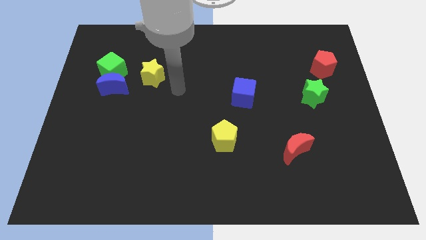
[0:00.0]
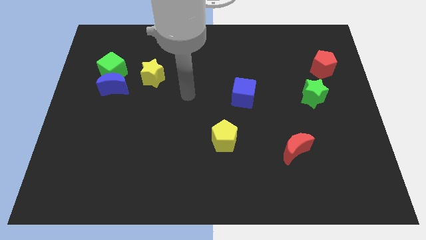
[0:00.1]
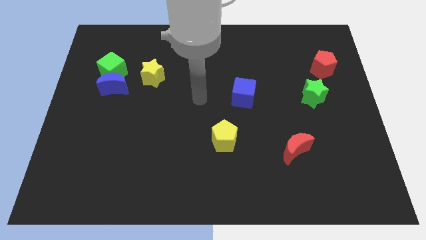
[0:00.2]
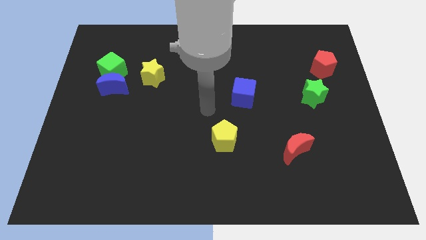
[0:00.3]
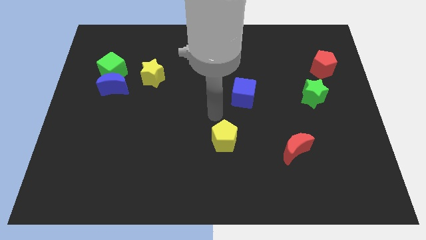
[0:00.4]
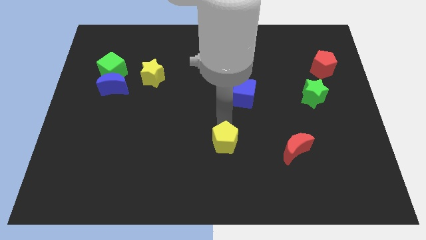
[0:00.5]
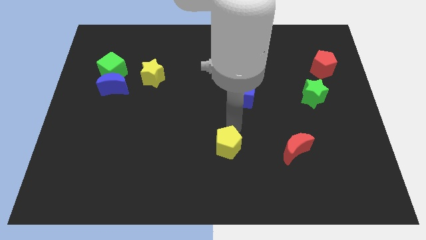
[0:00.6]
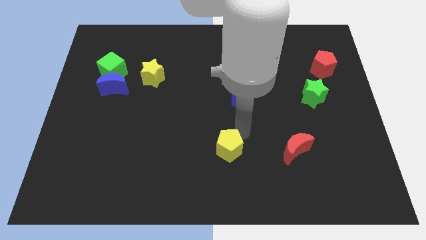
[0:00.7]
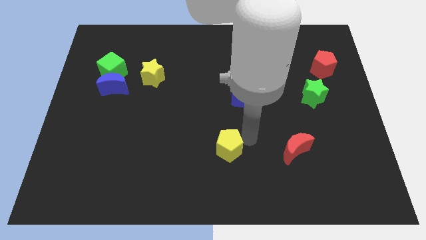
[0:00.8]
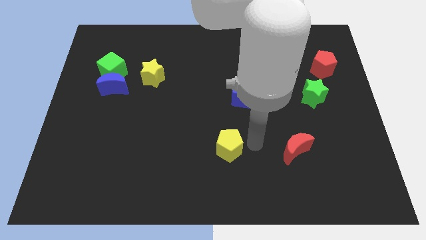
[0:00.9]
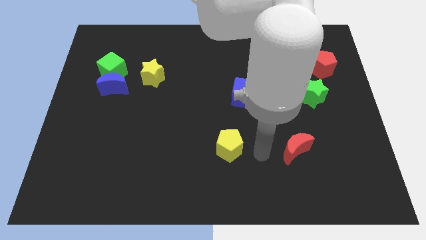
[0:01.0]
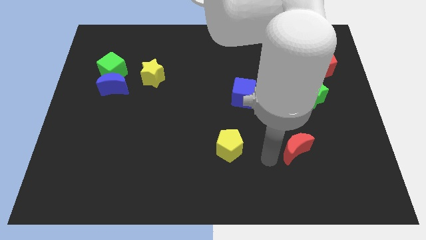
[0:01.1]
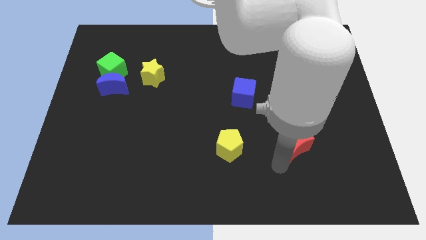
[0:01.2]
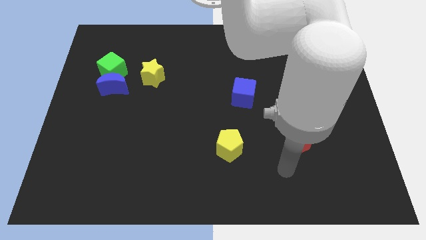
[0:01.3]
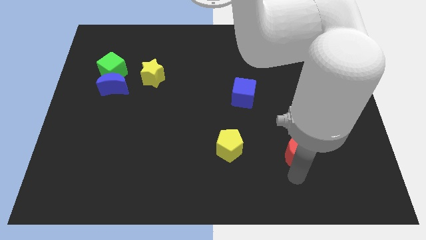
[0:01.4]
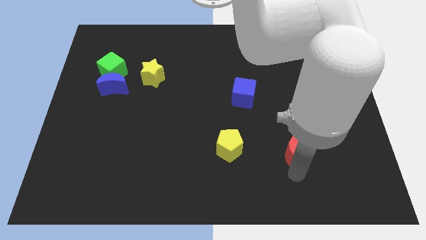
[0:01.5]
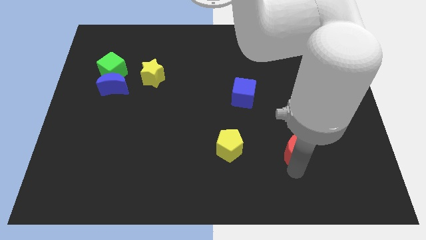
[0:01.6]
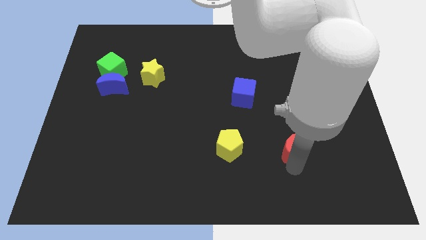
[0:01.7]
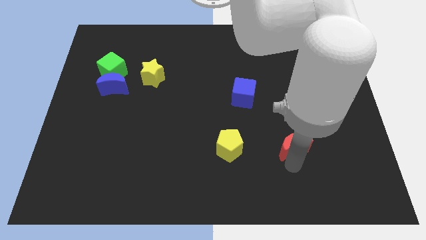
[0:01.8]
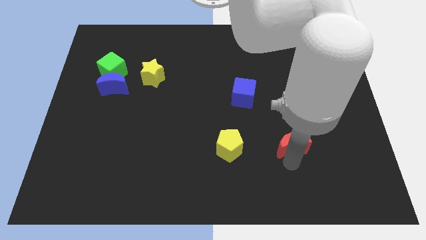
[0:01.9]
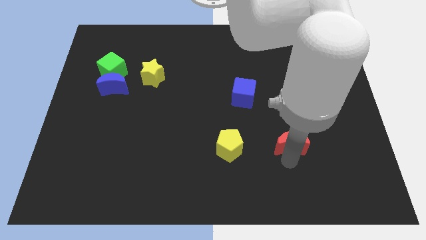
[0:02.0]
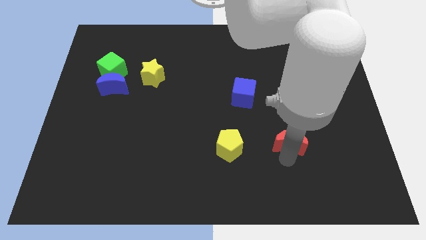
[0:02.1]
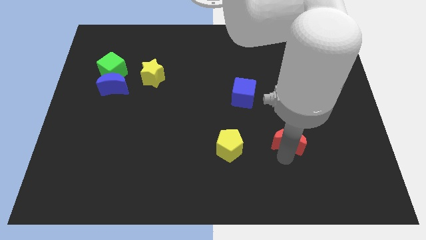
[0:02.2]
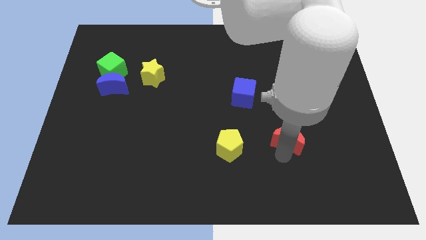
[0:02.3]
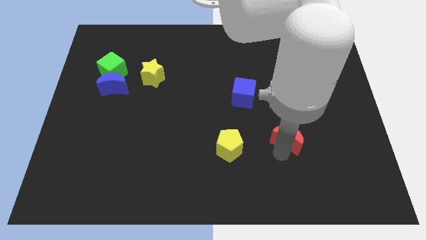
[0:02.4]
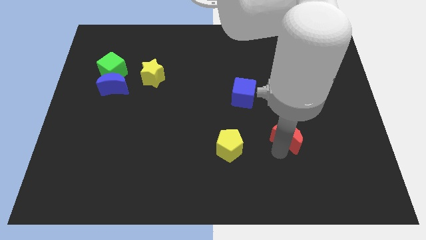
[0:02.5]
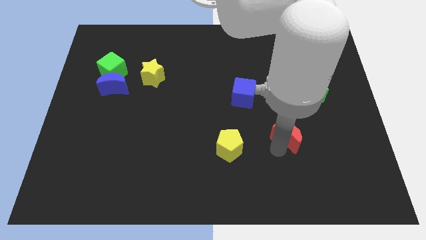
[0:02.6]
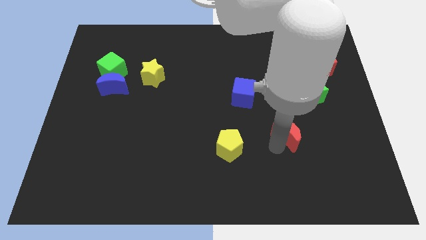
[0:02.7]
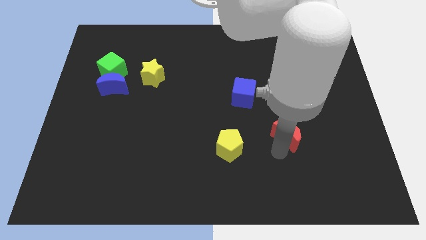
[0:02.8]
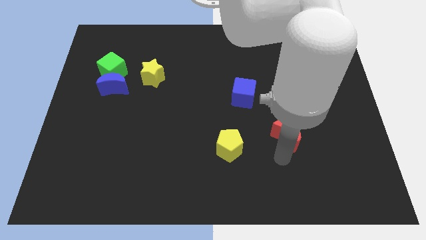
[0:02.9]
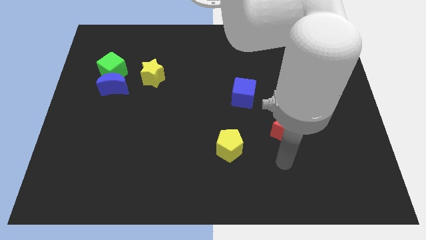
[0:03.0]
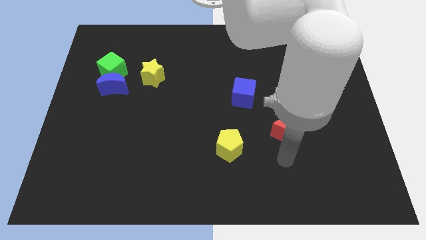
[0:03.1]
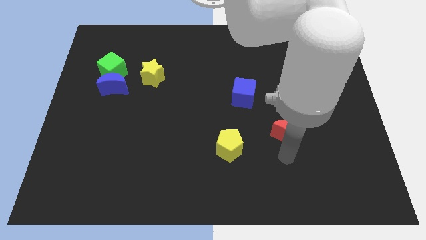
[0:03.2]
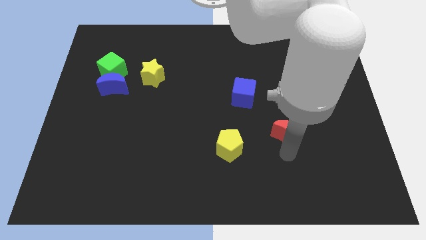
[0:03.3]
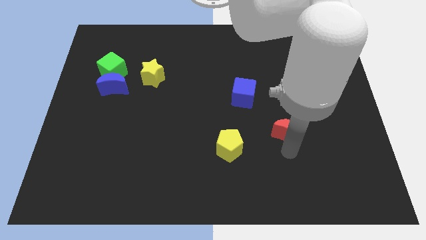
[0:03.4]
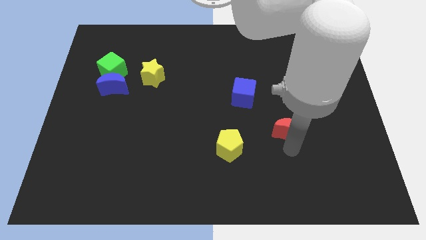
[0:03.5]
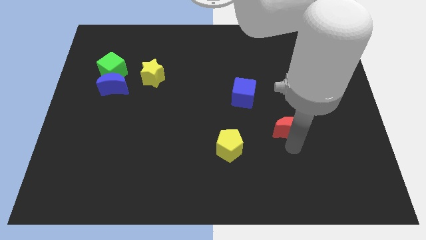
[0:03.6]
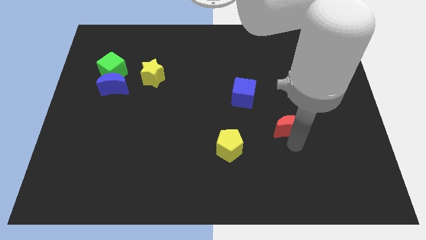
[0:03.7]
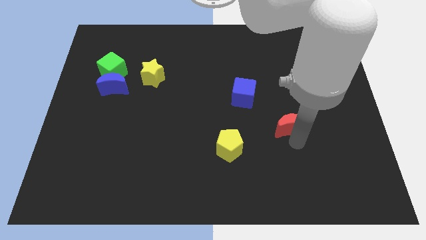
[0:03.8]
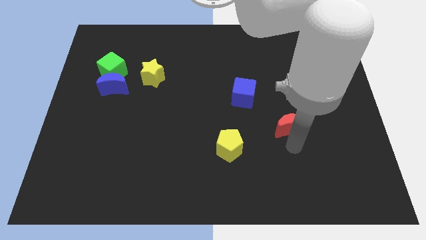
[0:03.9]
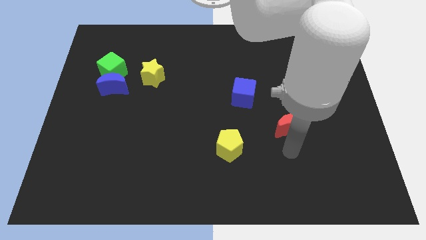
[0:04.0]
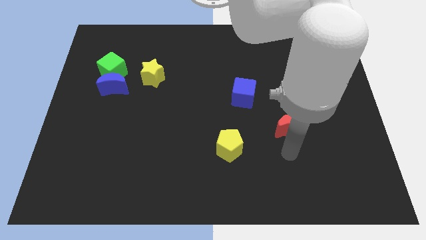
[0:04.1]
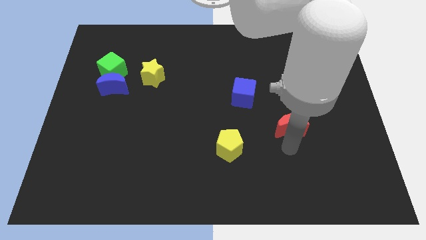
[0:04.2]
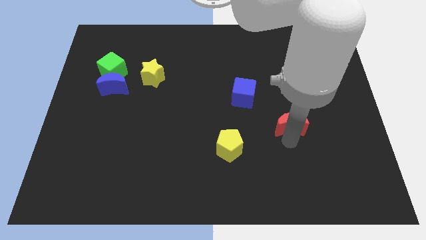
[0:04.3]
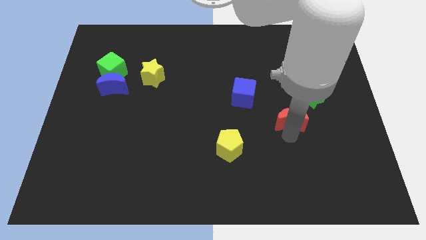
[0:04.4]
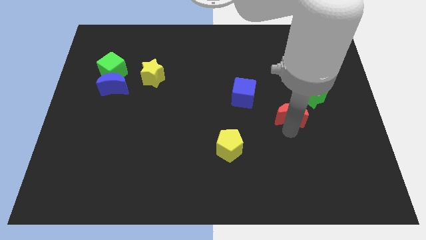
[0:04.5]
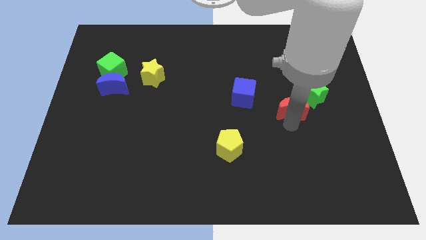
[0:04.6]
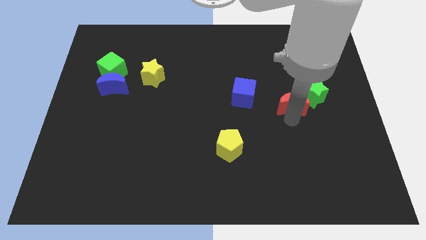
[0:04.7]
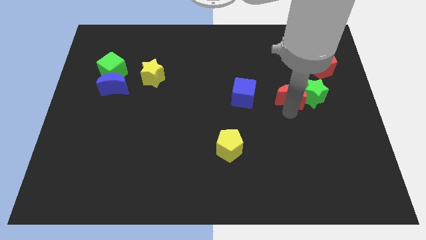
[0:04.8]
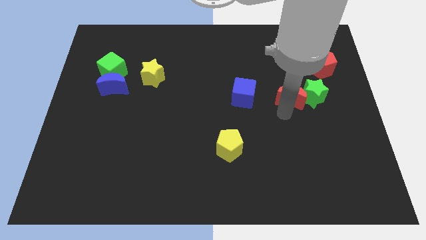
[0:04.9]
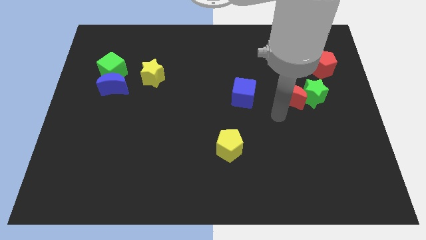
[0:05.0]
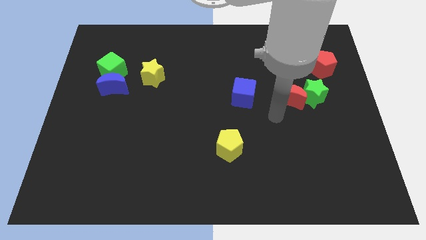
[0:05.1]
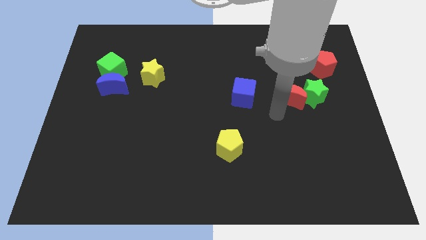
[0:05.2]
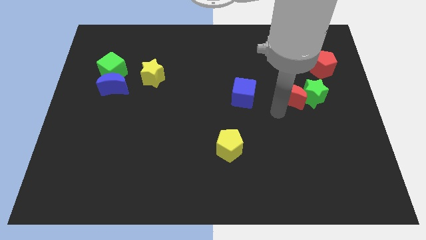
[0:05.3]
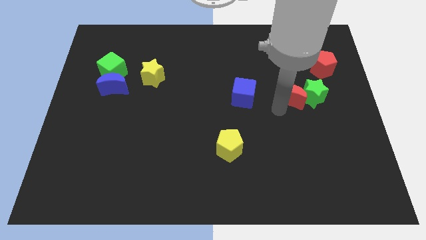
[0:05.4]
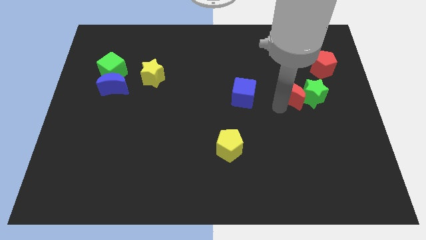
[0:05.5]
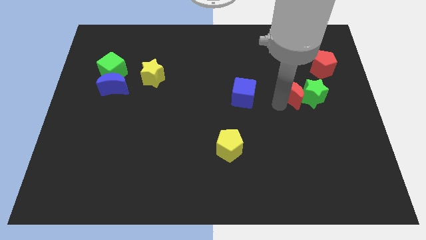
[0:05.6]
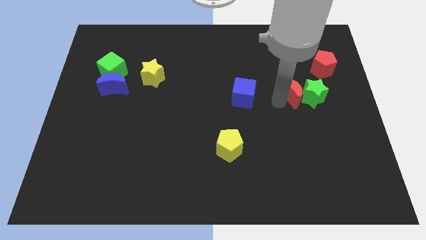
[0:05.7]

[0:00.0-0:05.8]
slide the red moon diagonally down and to the left of the red pentagon

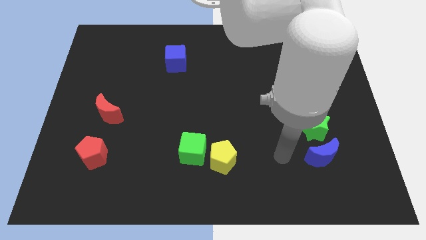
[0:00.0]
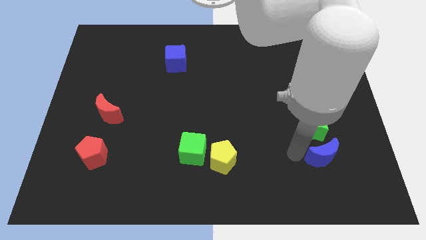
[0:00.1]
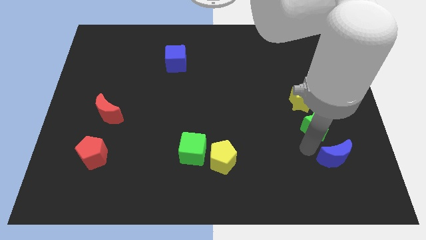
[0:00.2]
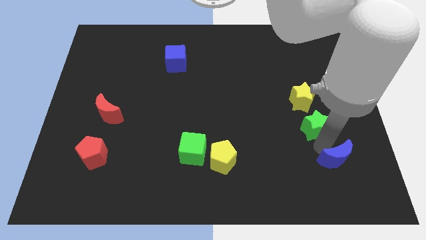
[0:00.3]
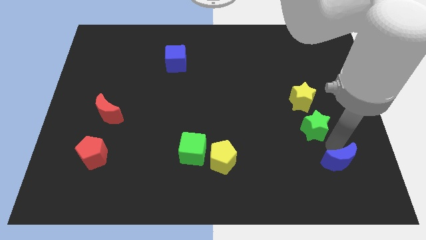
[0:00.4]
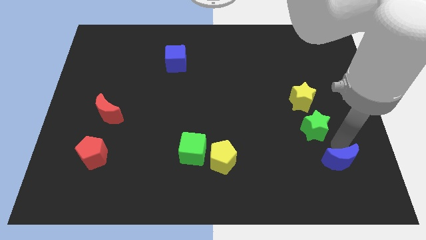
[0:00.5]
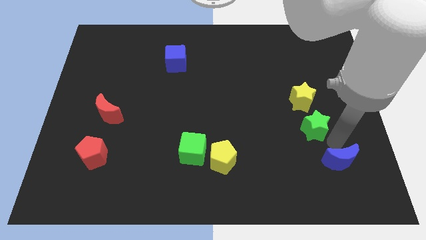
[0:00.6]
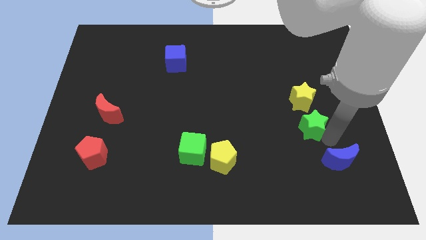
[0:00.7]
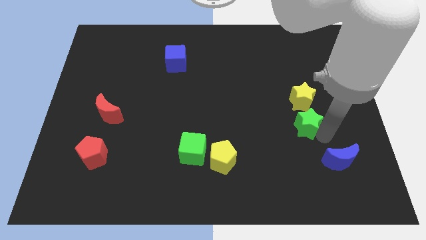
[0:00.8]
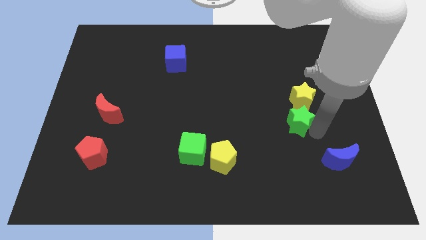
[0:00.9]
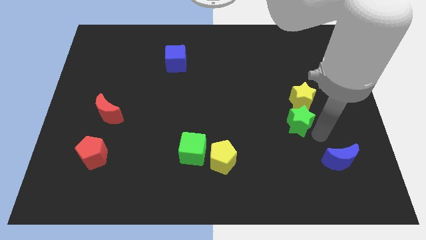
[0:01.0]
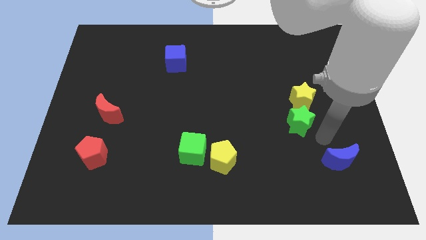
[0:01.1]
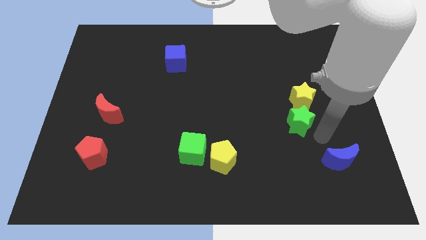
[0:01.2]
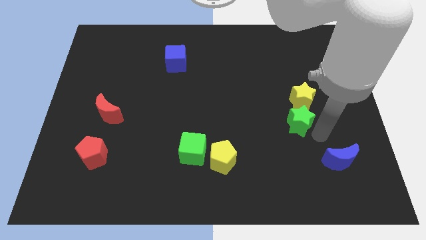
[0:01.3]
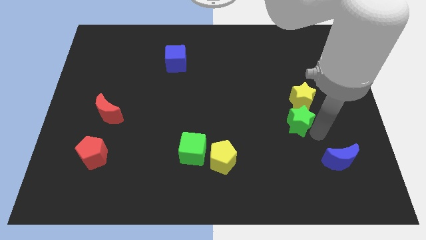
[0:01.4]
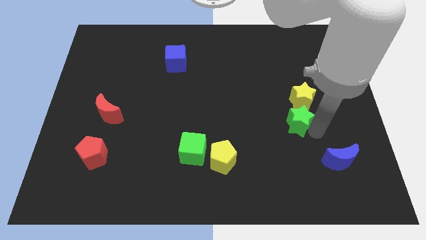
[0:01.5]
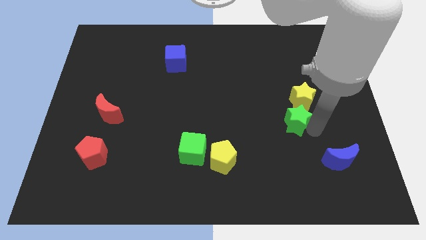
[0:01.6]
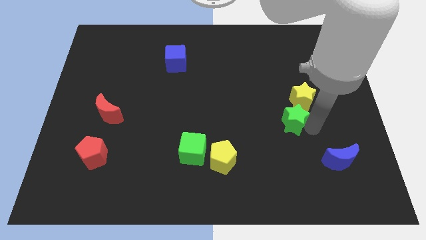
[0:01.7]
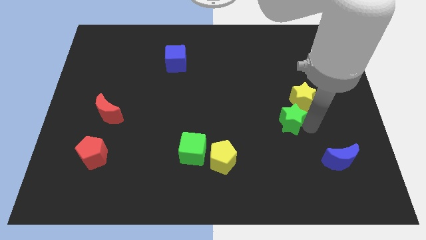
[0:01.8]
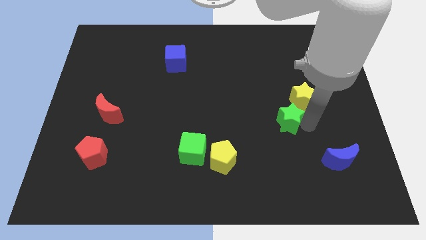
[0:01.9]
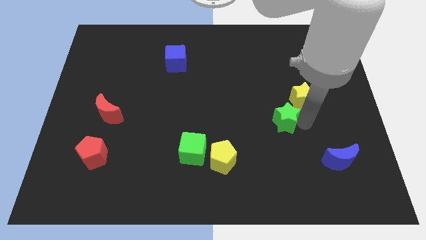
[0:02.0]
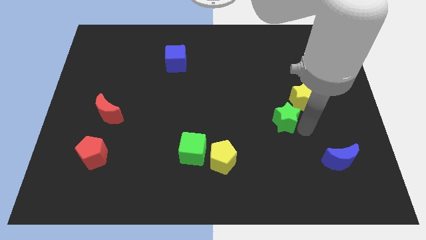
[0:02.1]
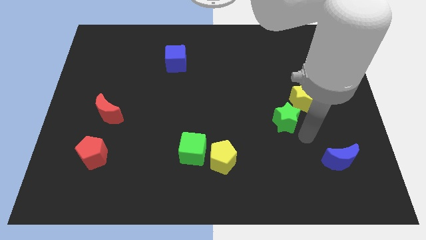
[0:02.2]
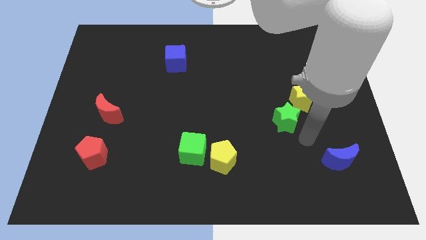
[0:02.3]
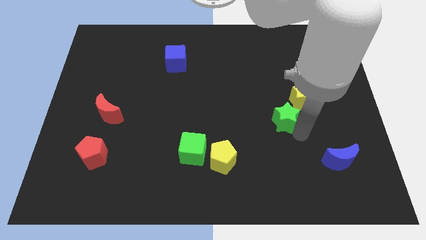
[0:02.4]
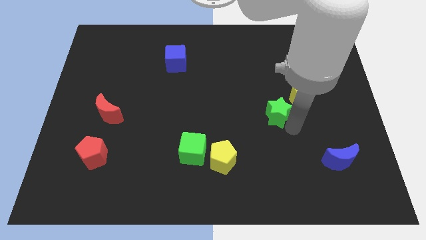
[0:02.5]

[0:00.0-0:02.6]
put the green star to the left of the yellow star
